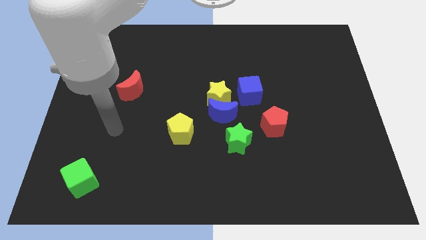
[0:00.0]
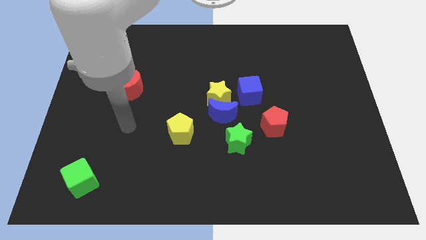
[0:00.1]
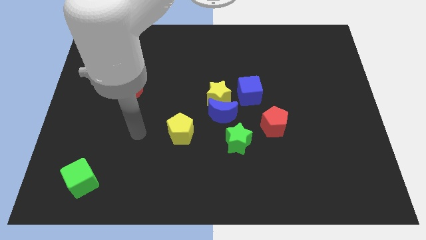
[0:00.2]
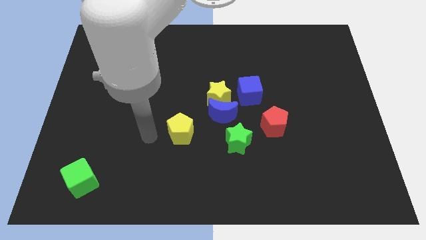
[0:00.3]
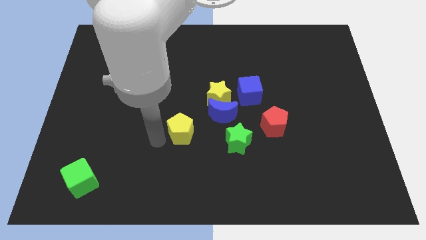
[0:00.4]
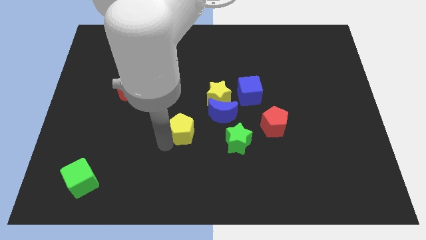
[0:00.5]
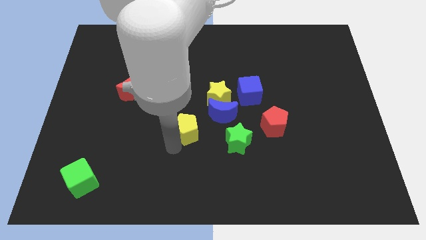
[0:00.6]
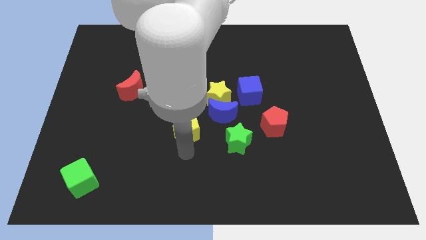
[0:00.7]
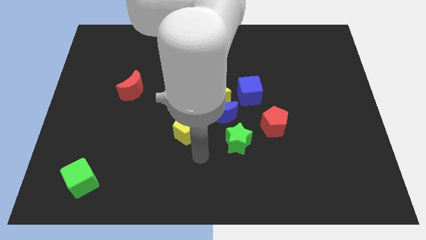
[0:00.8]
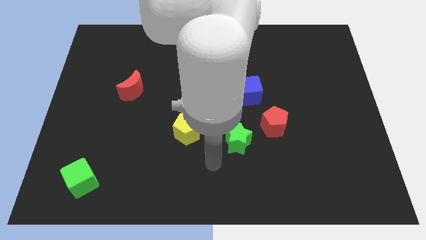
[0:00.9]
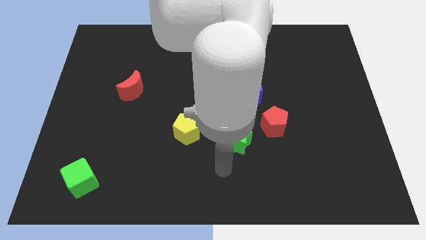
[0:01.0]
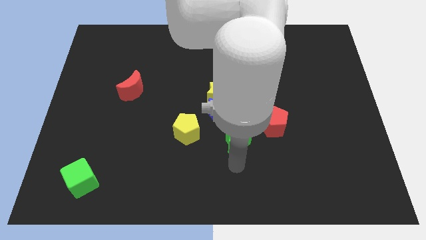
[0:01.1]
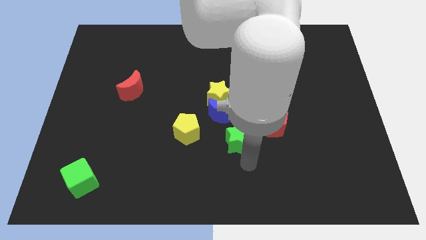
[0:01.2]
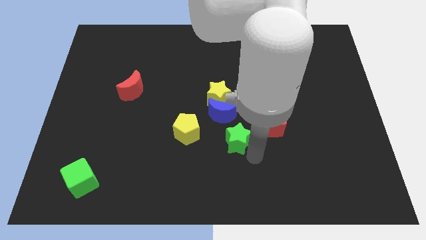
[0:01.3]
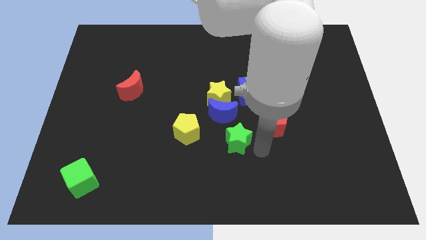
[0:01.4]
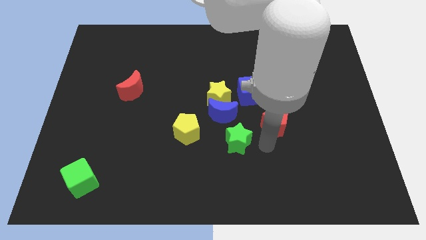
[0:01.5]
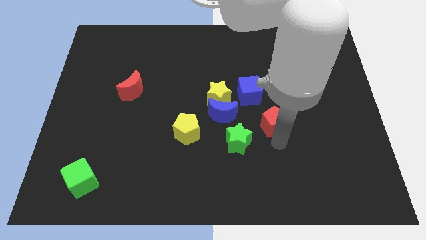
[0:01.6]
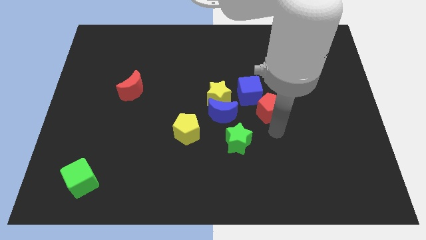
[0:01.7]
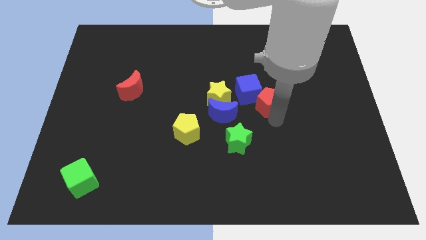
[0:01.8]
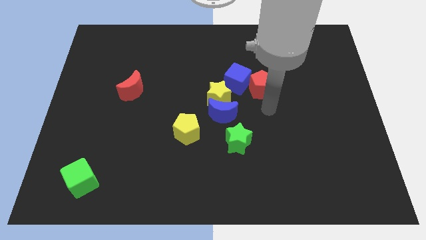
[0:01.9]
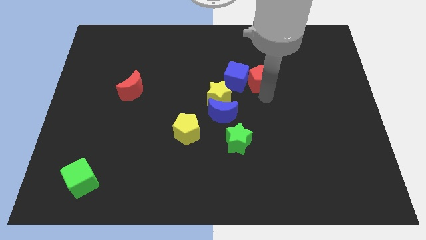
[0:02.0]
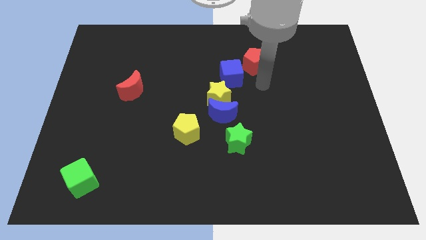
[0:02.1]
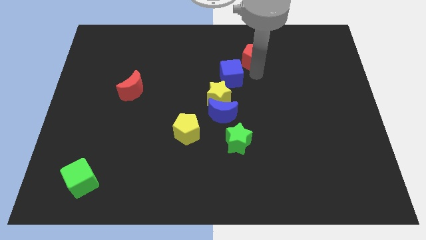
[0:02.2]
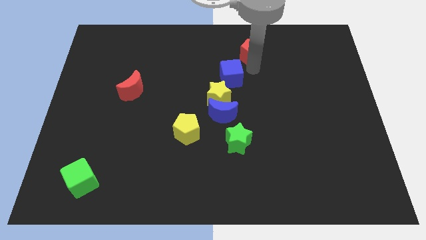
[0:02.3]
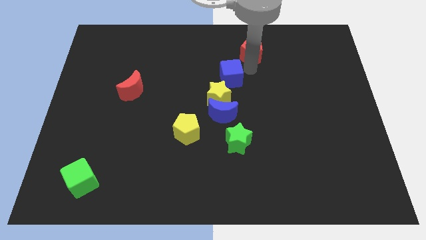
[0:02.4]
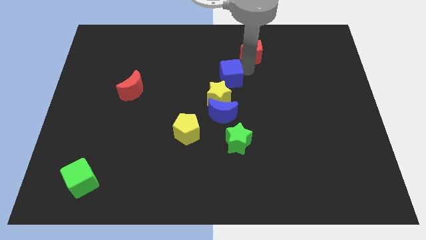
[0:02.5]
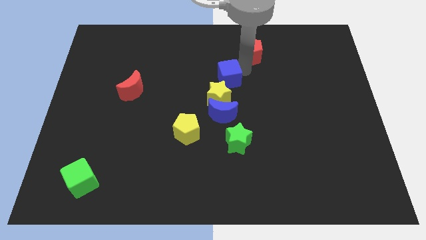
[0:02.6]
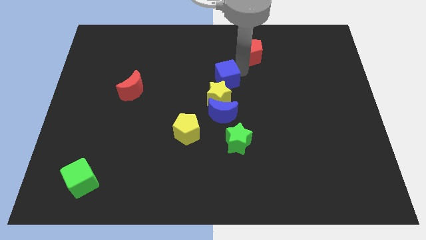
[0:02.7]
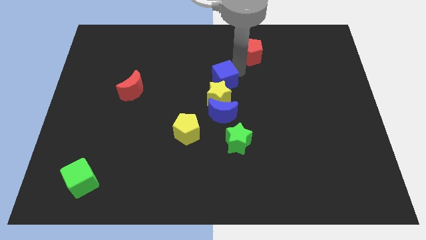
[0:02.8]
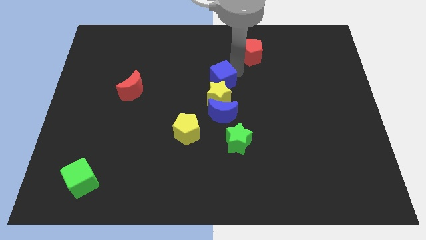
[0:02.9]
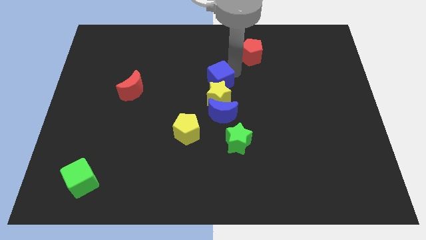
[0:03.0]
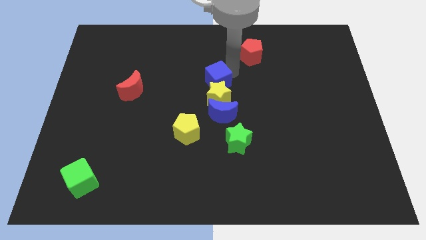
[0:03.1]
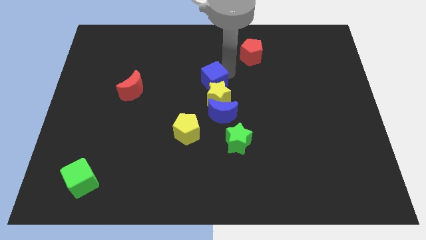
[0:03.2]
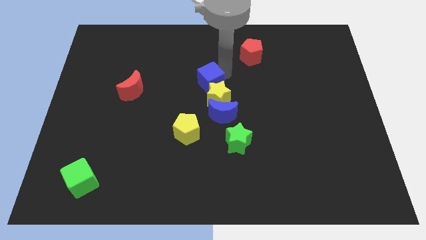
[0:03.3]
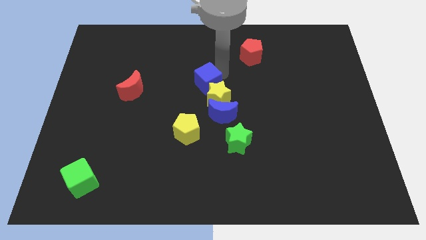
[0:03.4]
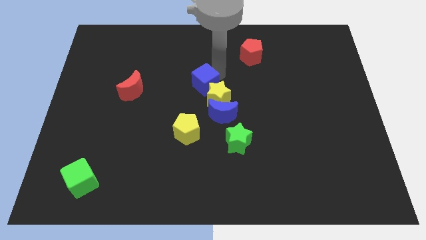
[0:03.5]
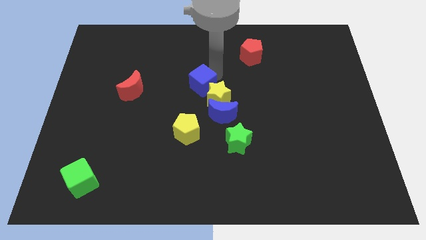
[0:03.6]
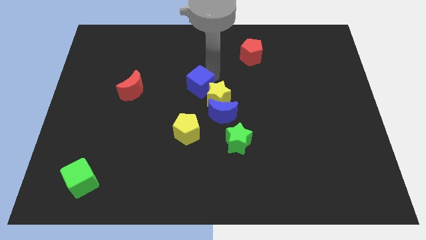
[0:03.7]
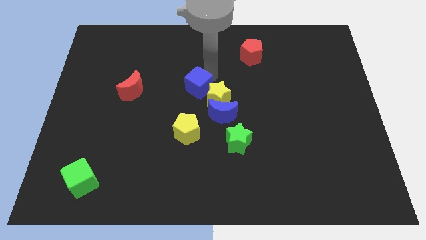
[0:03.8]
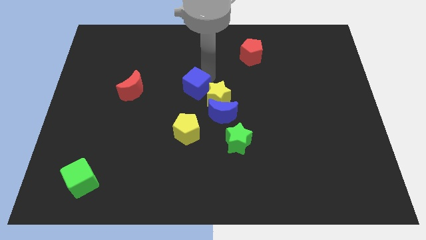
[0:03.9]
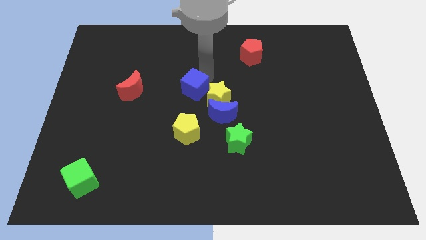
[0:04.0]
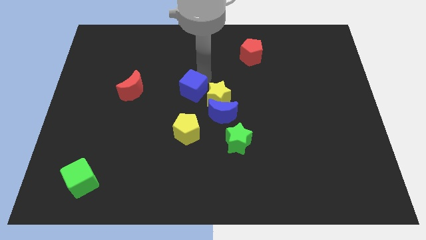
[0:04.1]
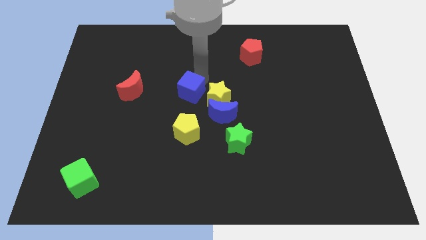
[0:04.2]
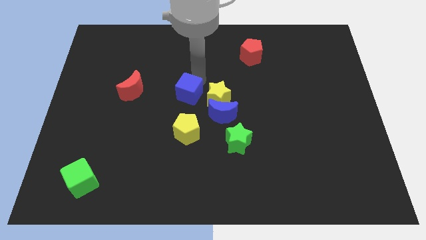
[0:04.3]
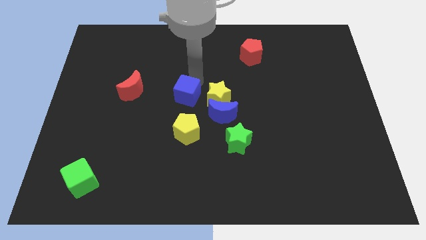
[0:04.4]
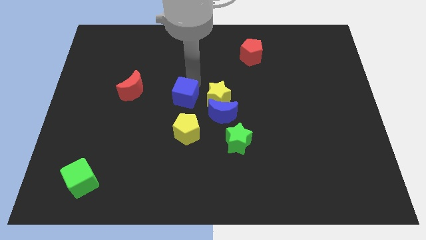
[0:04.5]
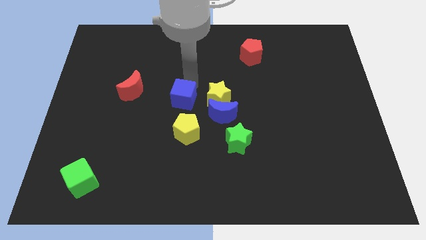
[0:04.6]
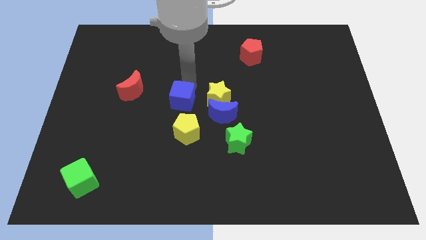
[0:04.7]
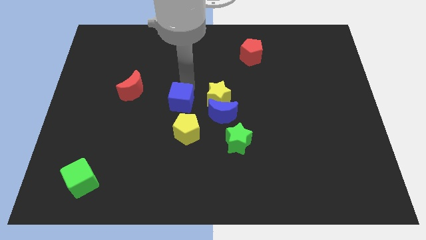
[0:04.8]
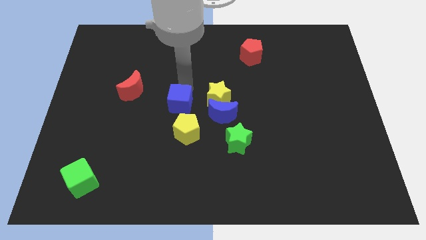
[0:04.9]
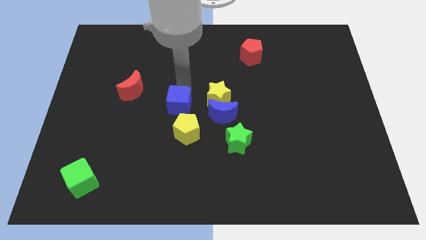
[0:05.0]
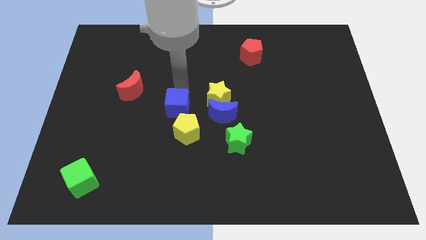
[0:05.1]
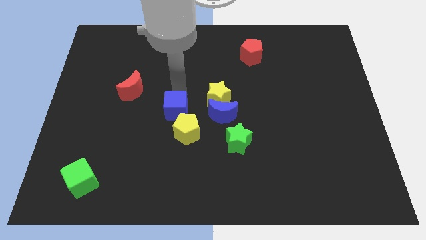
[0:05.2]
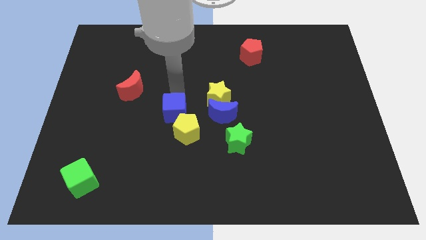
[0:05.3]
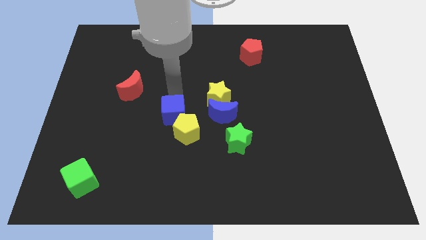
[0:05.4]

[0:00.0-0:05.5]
put the blue cube to the yellow pentagon

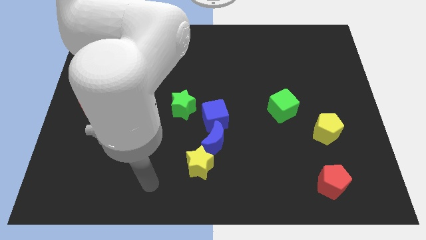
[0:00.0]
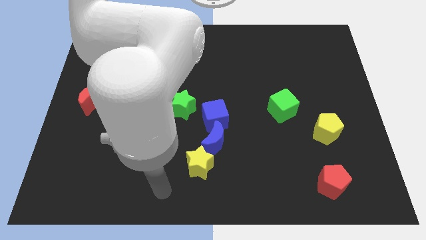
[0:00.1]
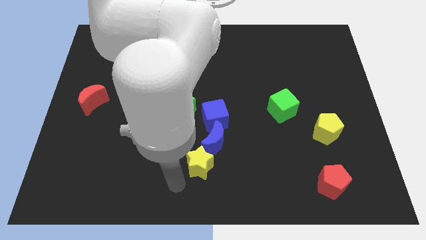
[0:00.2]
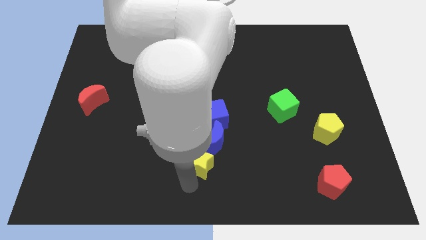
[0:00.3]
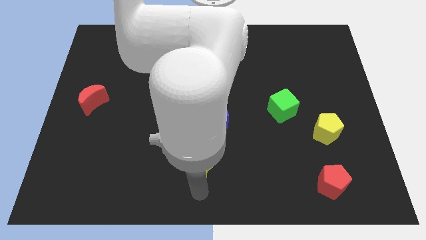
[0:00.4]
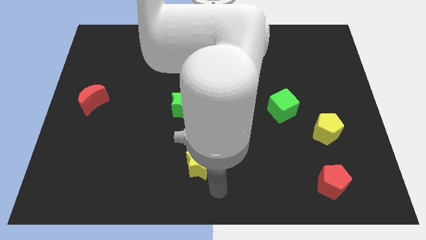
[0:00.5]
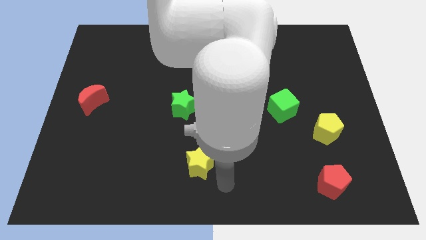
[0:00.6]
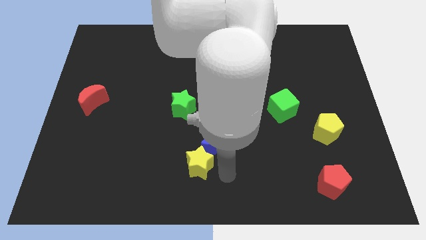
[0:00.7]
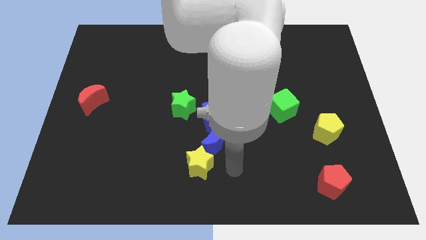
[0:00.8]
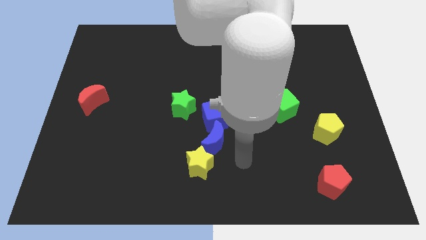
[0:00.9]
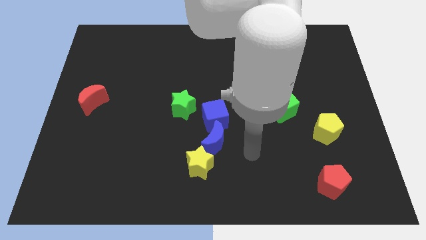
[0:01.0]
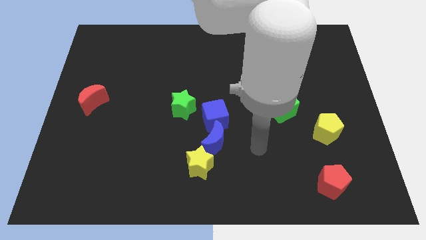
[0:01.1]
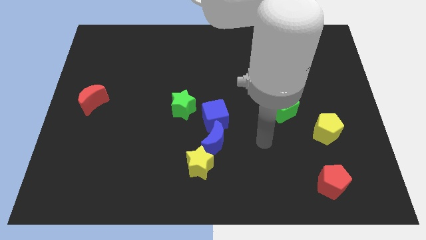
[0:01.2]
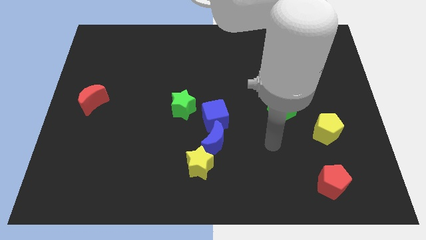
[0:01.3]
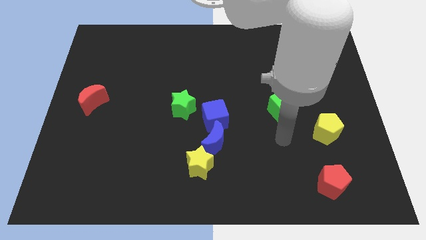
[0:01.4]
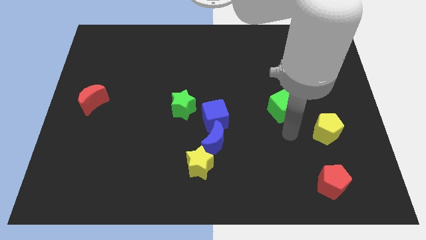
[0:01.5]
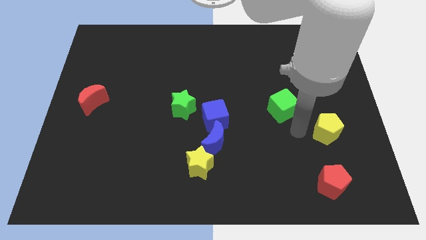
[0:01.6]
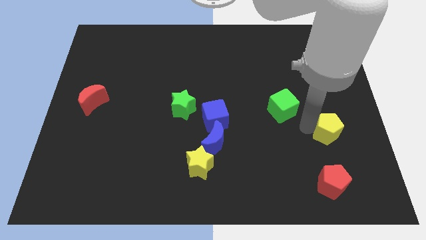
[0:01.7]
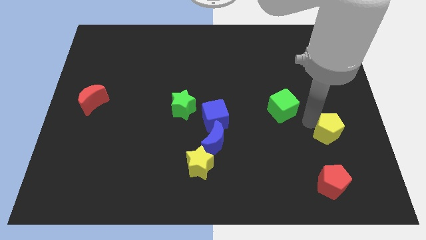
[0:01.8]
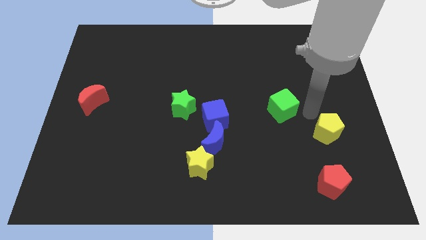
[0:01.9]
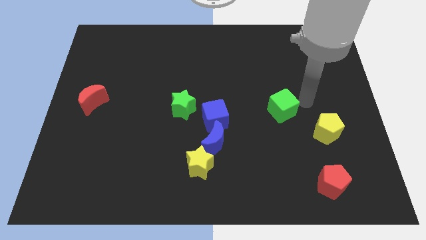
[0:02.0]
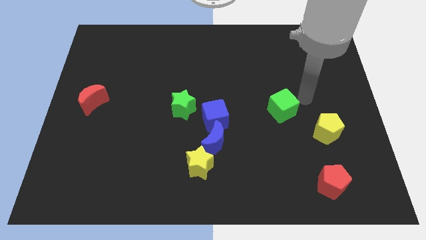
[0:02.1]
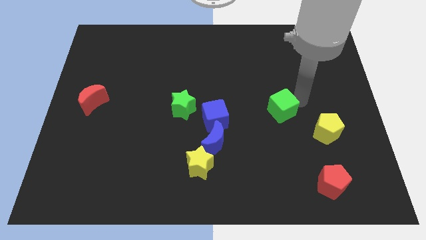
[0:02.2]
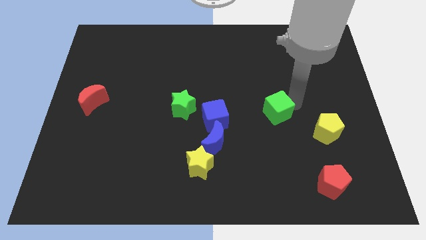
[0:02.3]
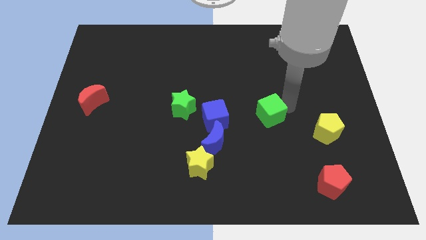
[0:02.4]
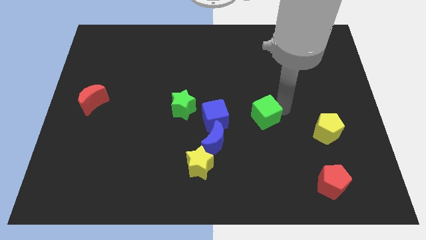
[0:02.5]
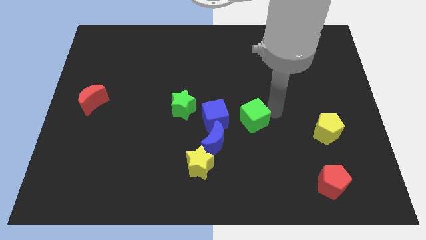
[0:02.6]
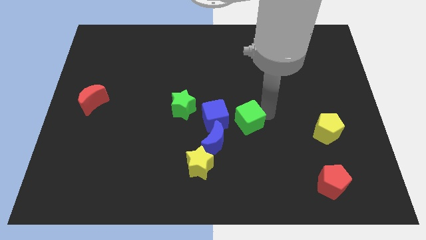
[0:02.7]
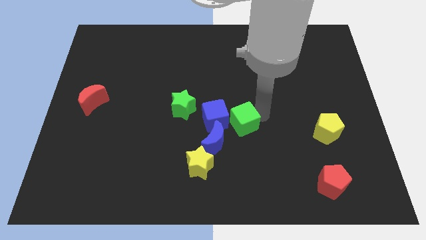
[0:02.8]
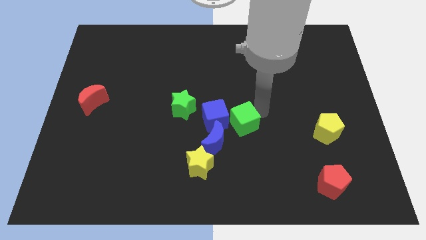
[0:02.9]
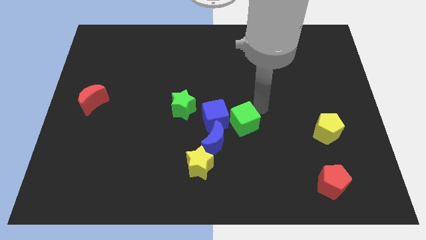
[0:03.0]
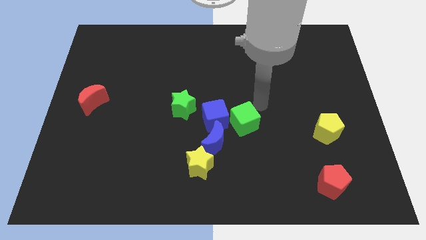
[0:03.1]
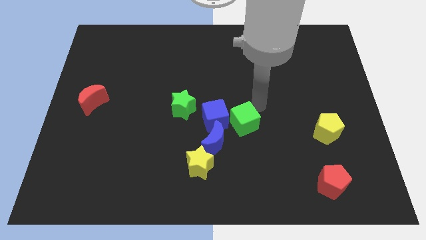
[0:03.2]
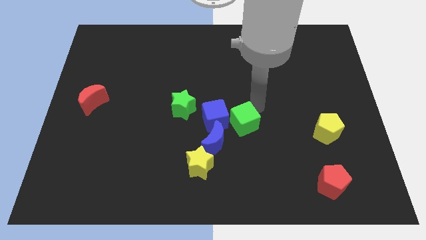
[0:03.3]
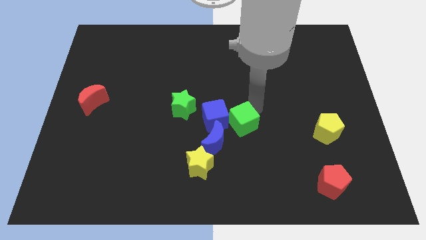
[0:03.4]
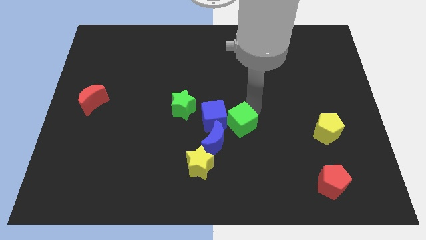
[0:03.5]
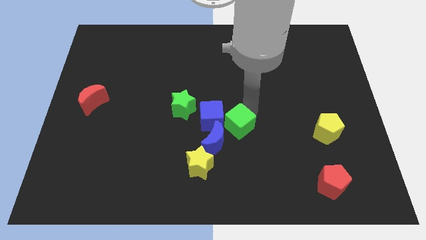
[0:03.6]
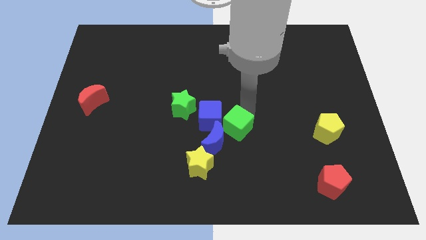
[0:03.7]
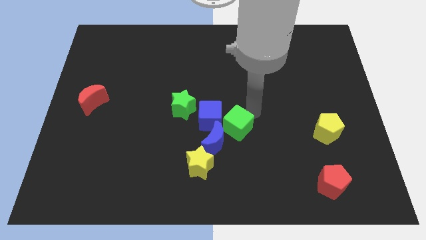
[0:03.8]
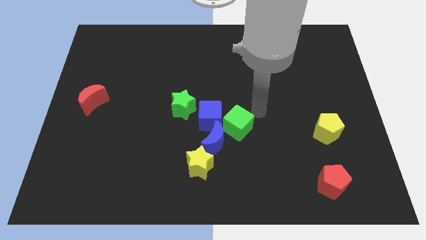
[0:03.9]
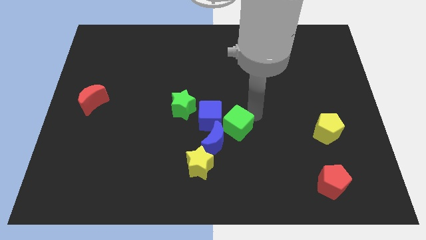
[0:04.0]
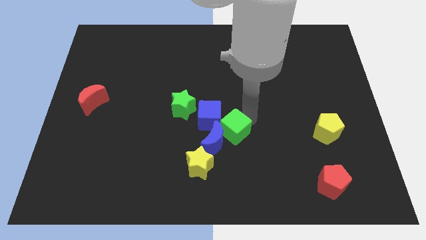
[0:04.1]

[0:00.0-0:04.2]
push the green cube close to the blue moon
